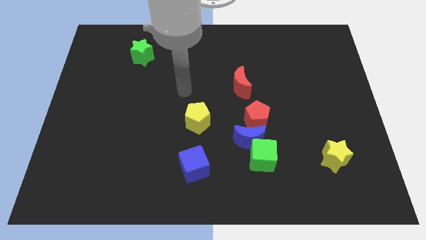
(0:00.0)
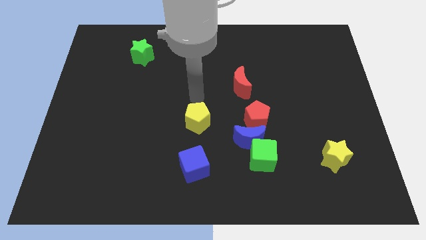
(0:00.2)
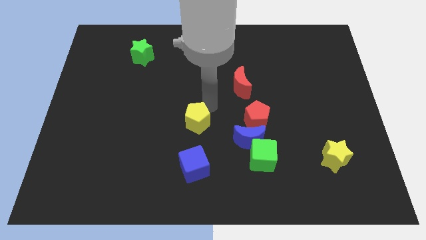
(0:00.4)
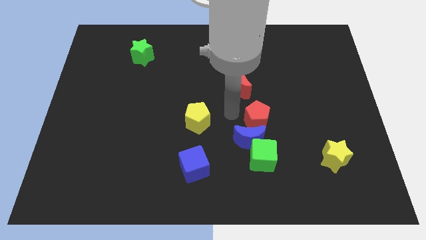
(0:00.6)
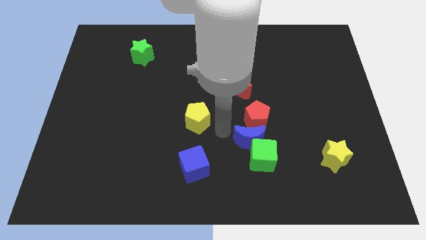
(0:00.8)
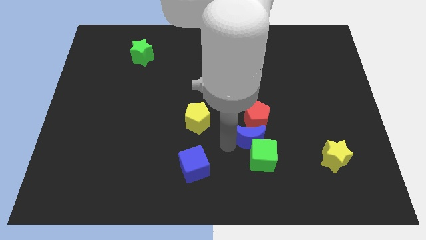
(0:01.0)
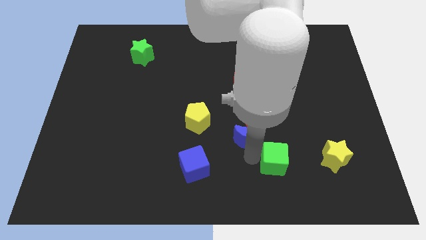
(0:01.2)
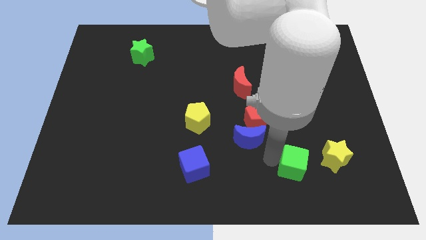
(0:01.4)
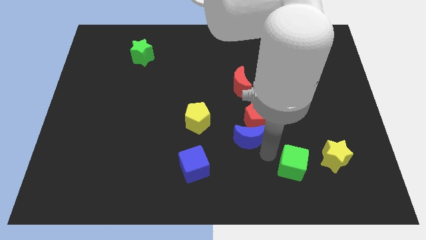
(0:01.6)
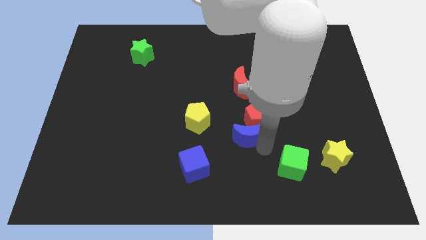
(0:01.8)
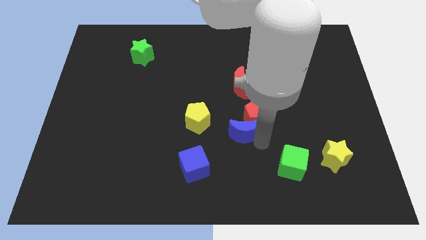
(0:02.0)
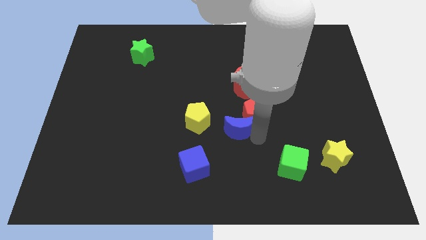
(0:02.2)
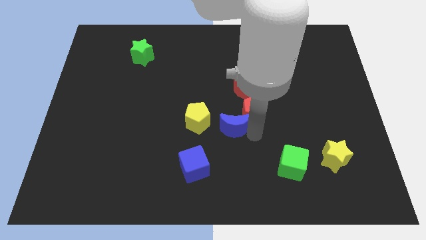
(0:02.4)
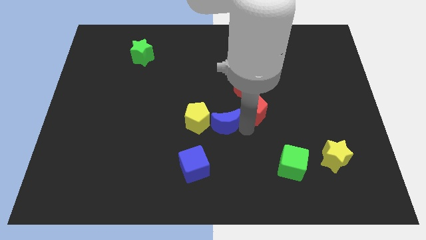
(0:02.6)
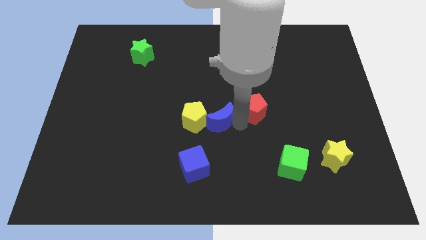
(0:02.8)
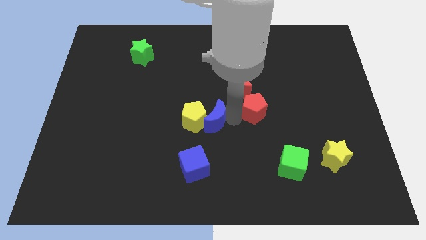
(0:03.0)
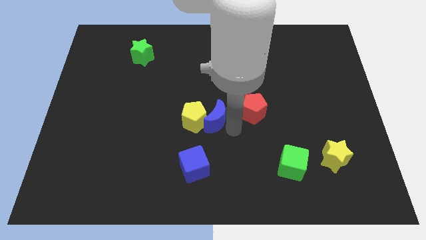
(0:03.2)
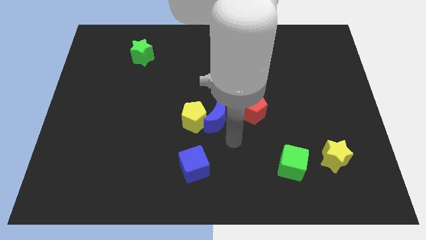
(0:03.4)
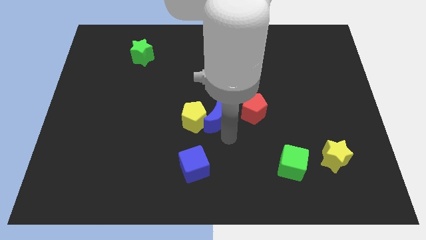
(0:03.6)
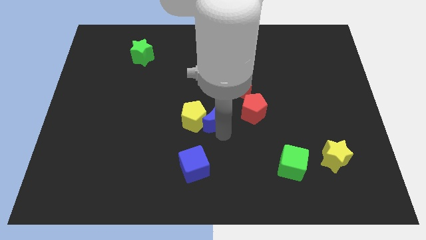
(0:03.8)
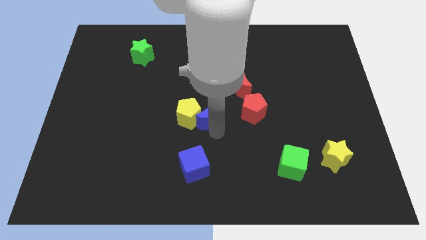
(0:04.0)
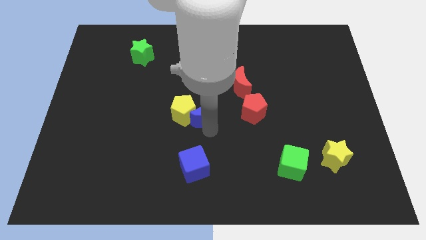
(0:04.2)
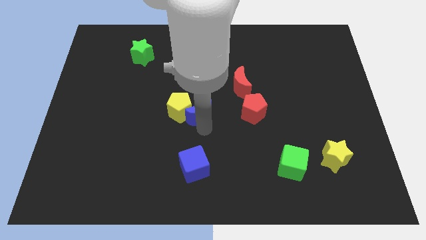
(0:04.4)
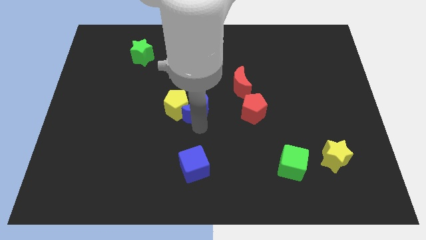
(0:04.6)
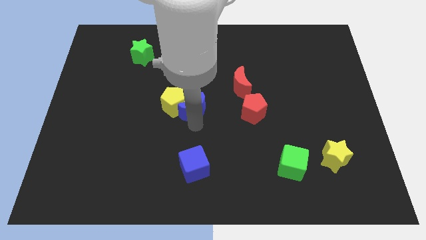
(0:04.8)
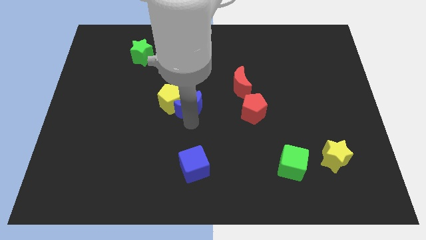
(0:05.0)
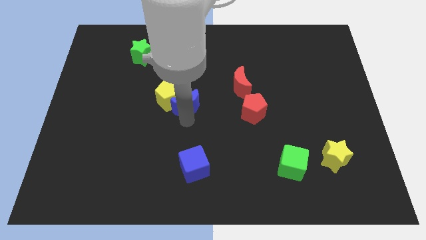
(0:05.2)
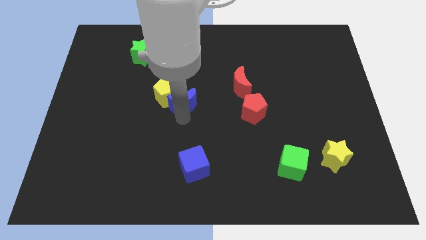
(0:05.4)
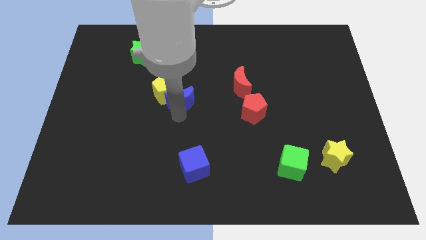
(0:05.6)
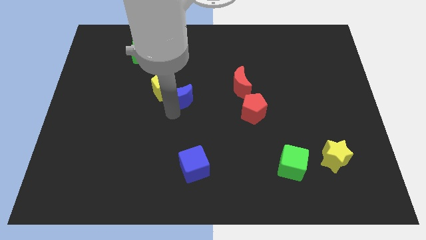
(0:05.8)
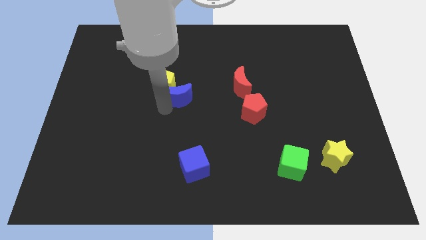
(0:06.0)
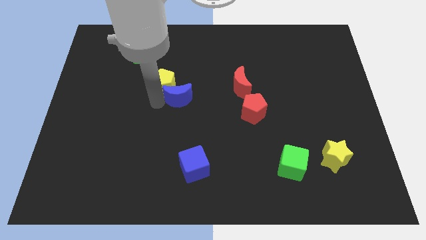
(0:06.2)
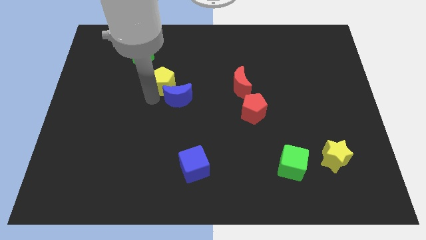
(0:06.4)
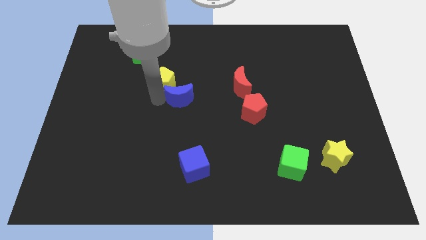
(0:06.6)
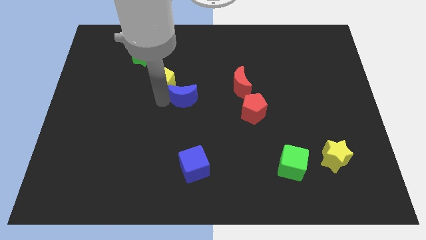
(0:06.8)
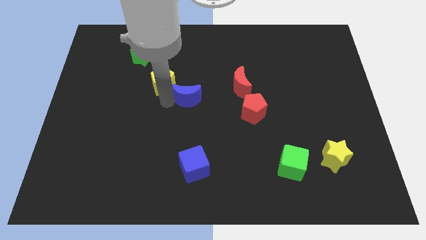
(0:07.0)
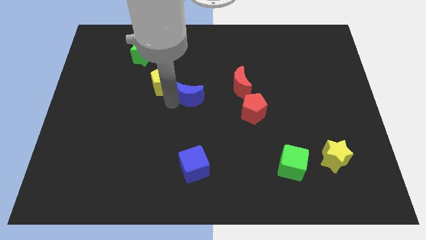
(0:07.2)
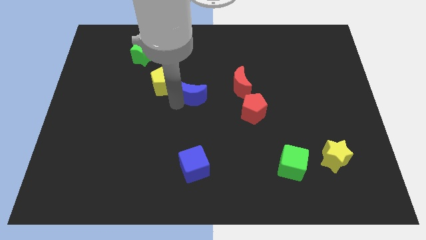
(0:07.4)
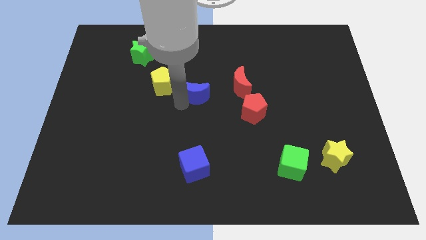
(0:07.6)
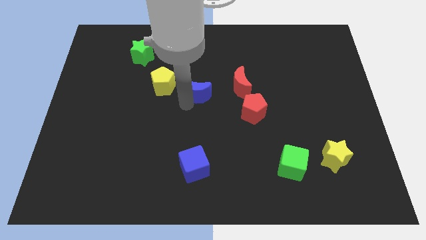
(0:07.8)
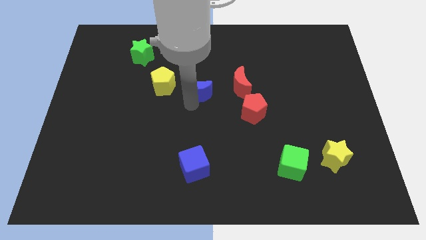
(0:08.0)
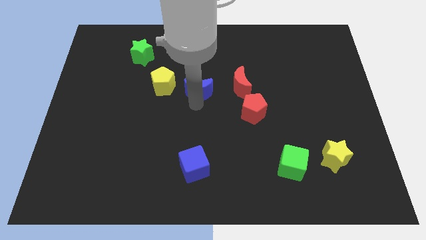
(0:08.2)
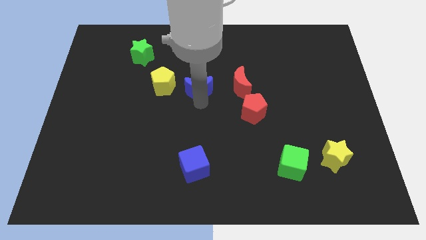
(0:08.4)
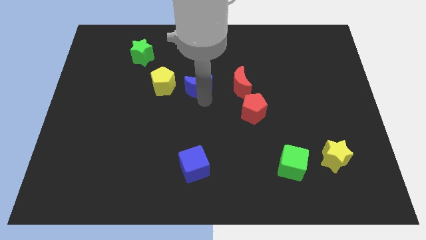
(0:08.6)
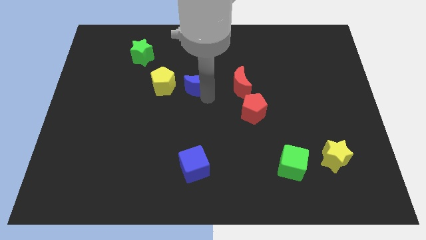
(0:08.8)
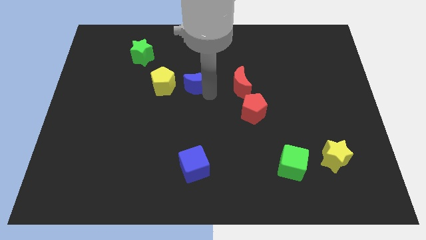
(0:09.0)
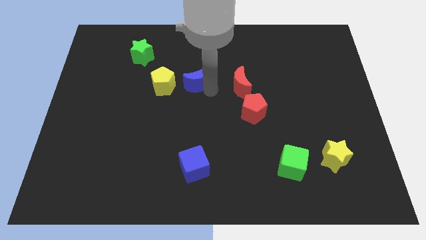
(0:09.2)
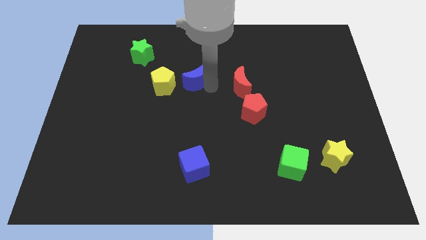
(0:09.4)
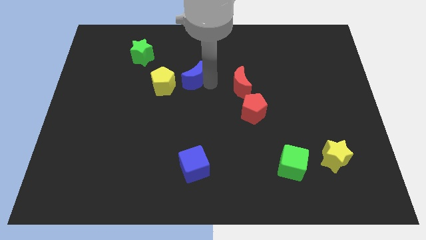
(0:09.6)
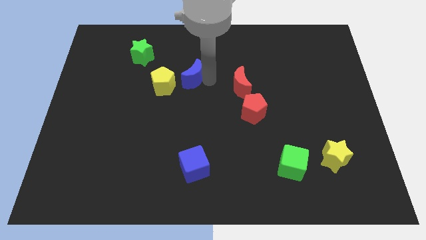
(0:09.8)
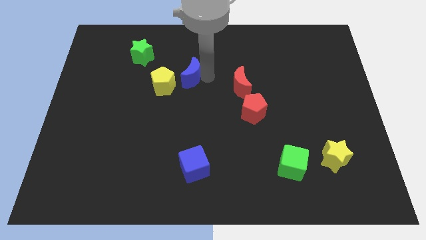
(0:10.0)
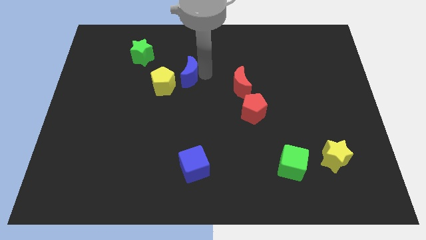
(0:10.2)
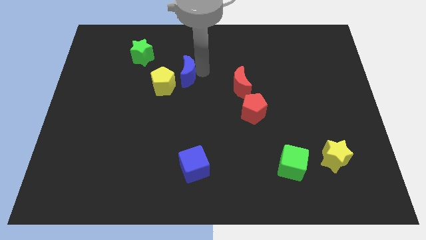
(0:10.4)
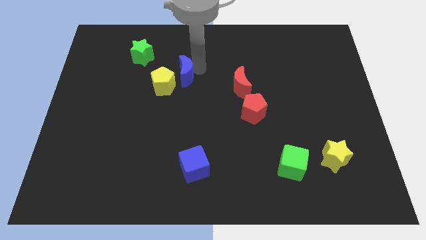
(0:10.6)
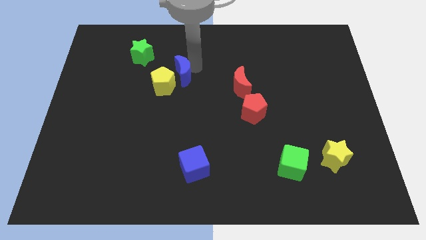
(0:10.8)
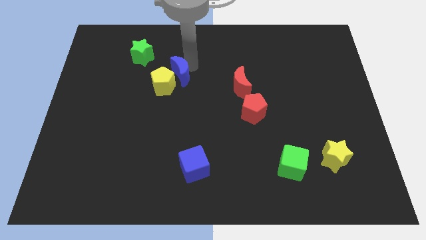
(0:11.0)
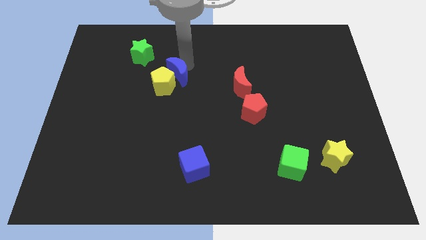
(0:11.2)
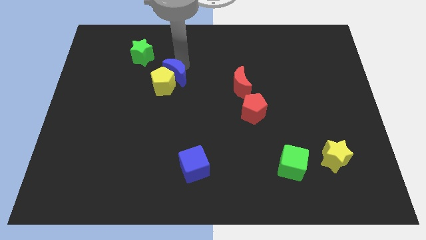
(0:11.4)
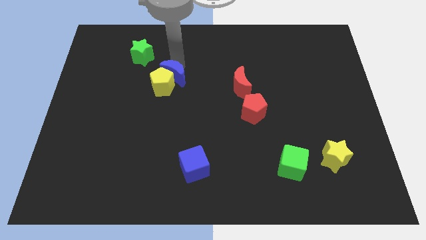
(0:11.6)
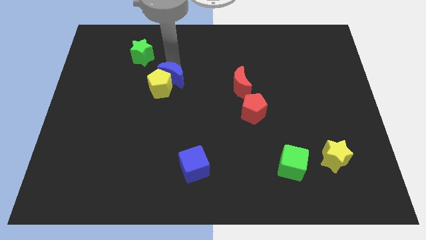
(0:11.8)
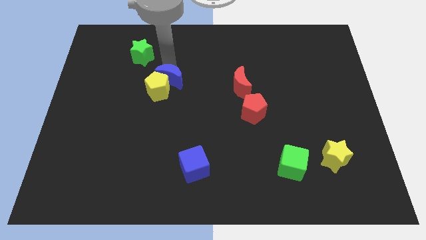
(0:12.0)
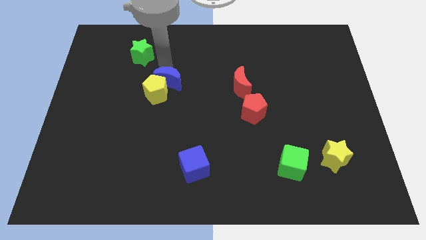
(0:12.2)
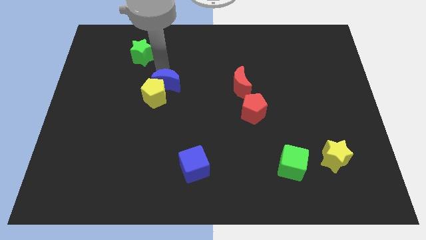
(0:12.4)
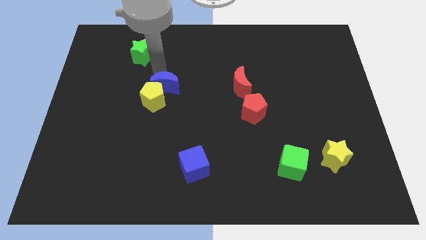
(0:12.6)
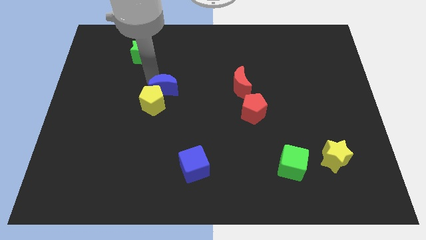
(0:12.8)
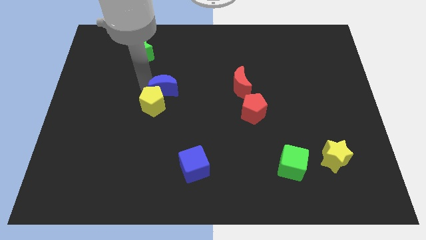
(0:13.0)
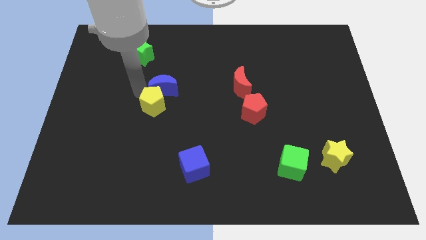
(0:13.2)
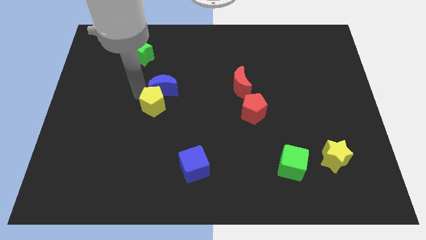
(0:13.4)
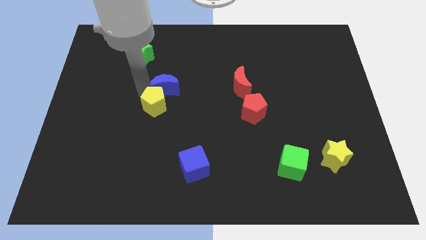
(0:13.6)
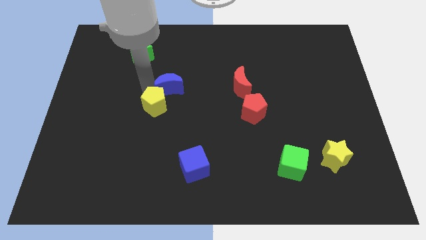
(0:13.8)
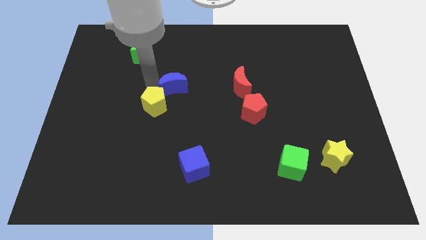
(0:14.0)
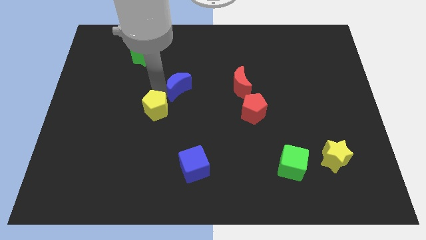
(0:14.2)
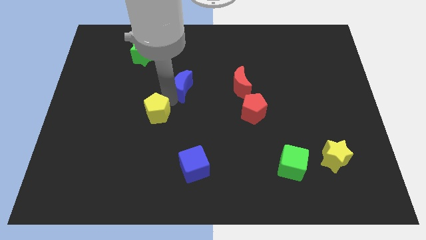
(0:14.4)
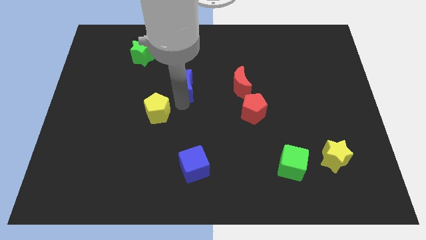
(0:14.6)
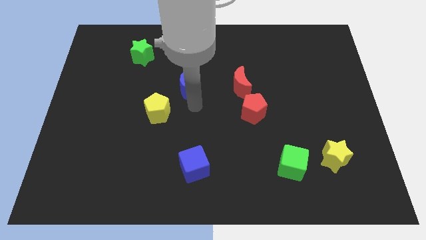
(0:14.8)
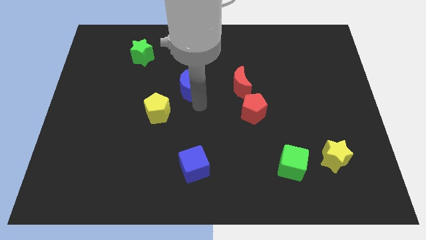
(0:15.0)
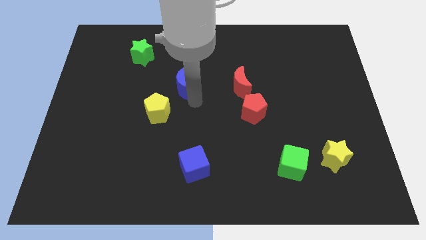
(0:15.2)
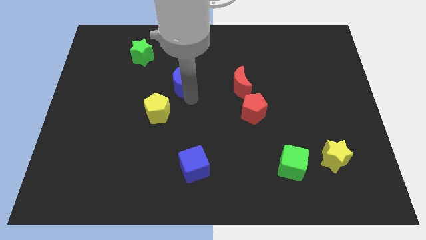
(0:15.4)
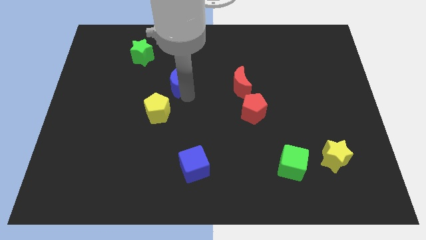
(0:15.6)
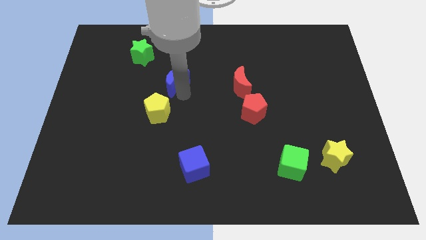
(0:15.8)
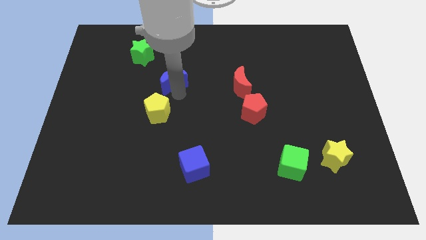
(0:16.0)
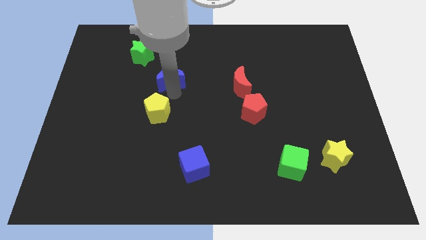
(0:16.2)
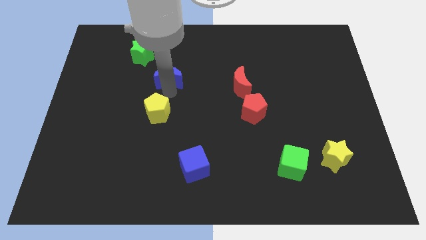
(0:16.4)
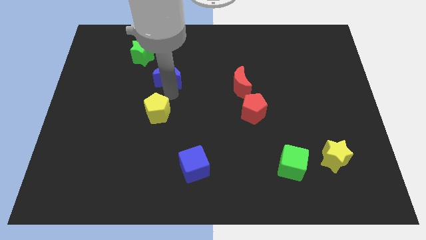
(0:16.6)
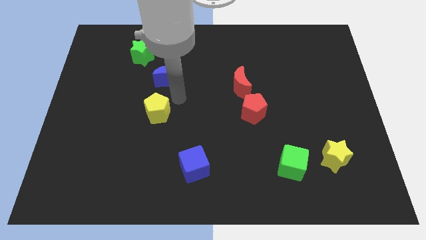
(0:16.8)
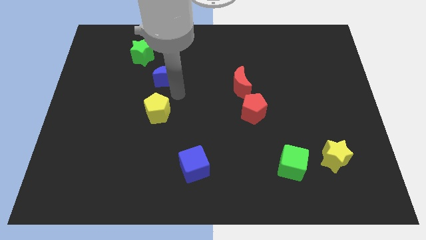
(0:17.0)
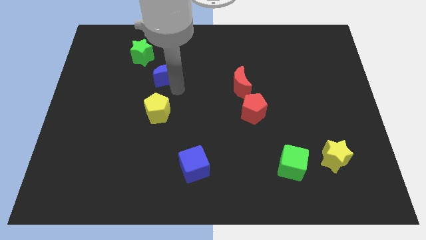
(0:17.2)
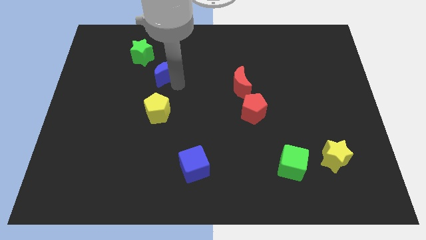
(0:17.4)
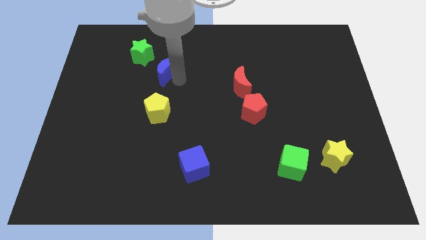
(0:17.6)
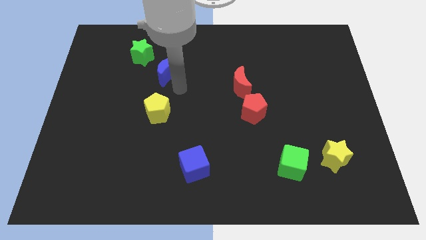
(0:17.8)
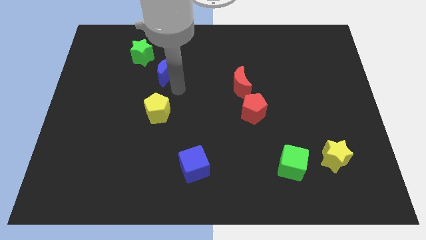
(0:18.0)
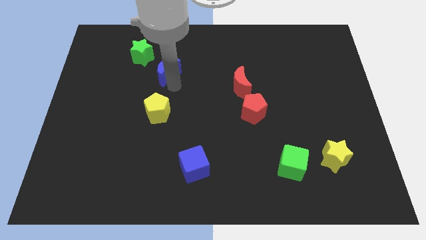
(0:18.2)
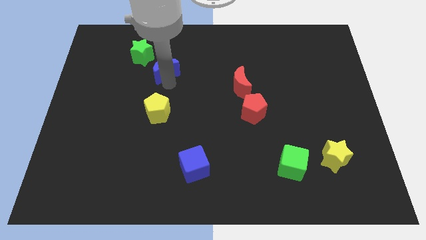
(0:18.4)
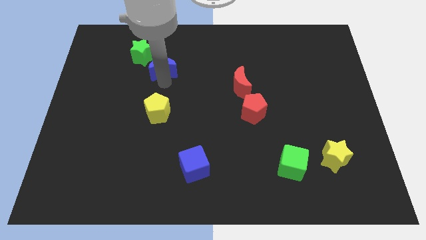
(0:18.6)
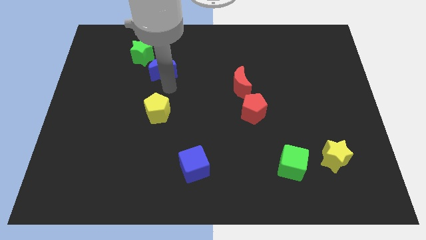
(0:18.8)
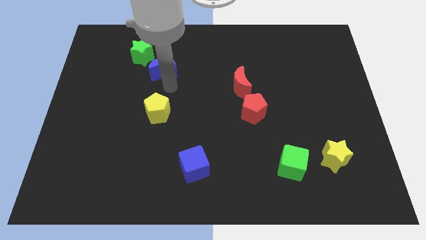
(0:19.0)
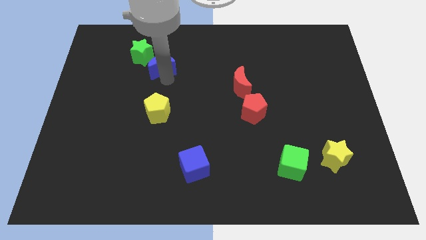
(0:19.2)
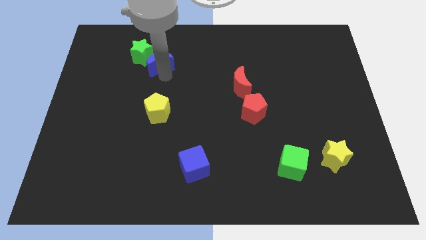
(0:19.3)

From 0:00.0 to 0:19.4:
slide the blue moon next to the green star
